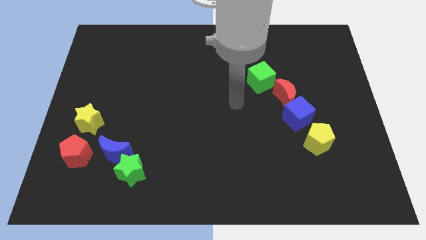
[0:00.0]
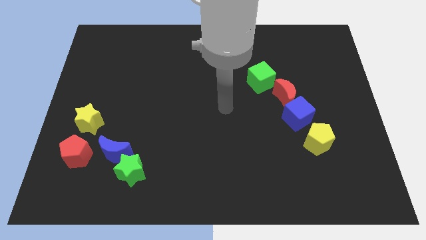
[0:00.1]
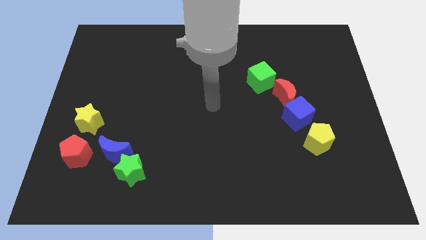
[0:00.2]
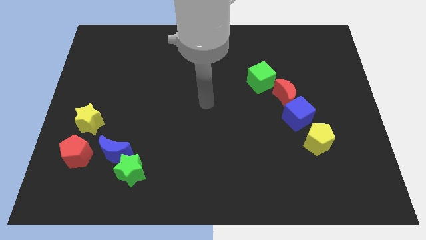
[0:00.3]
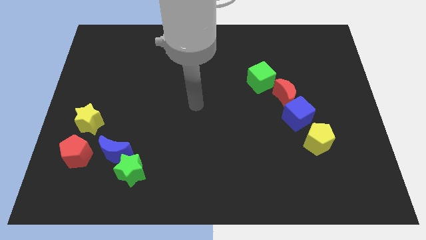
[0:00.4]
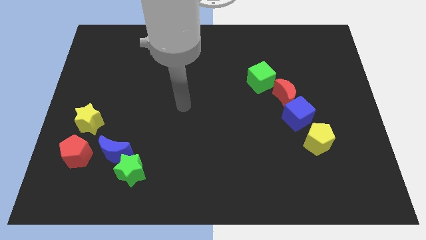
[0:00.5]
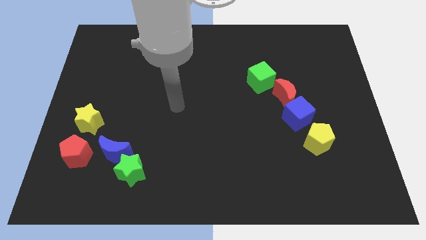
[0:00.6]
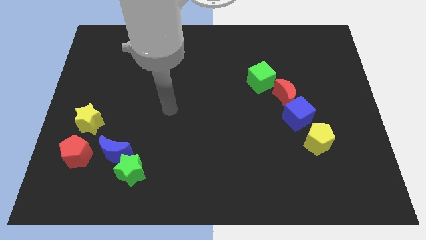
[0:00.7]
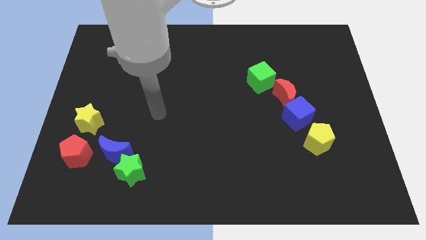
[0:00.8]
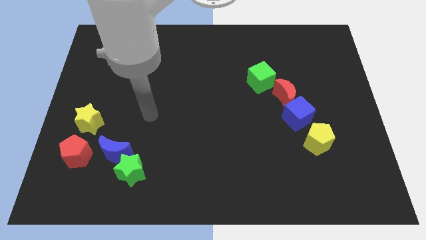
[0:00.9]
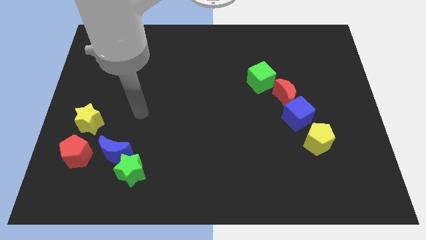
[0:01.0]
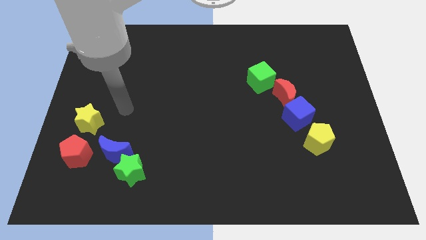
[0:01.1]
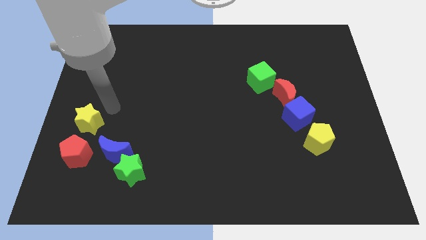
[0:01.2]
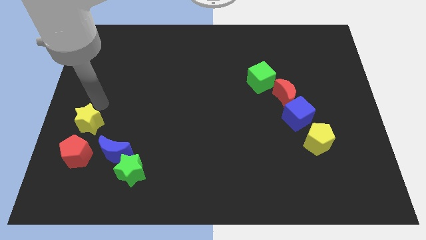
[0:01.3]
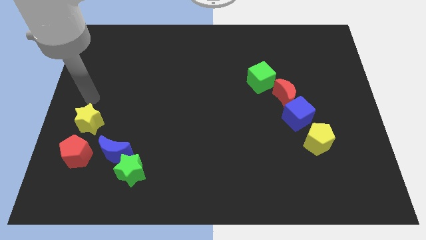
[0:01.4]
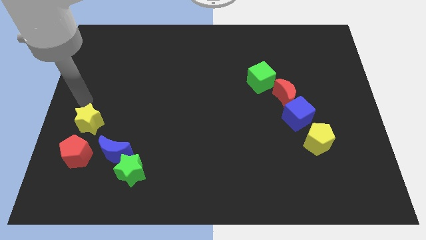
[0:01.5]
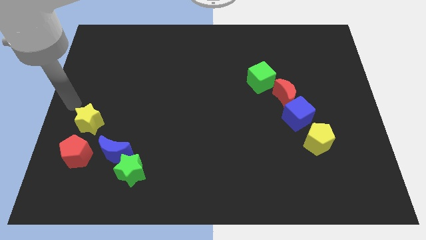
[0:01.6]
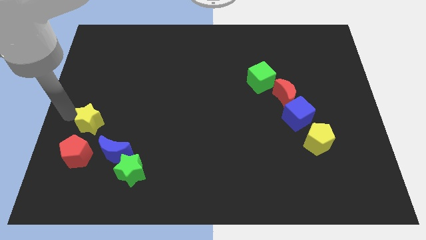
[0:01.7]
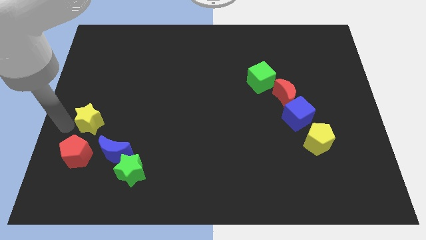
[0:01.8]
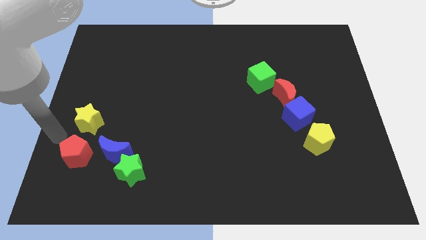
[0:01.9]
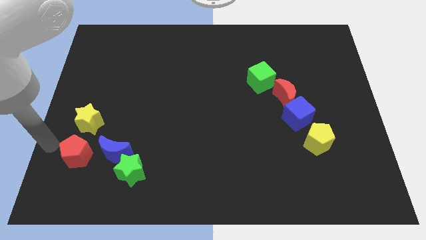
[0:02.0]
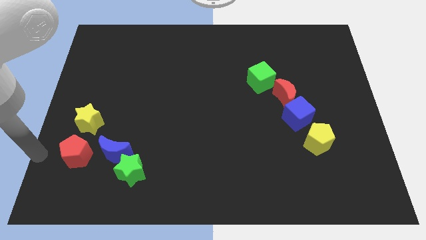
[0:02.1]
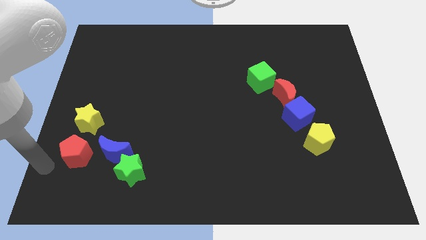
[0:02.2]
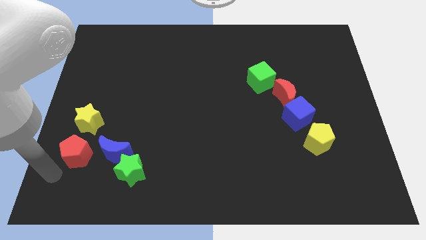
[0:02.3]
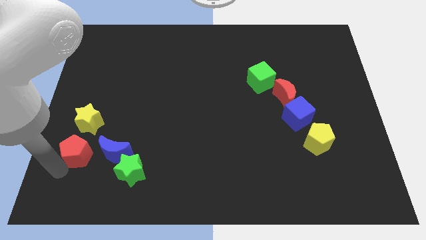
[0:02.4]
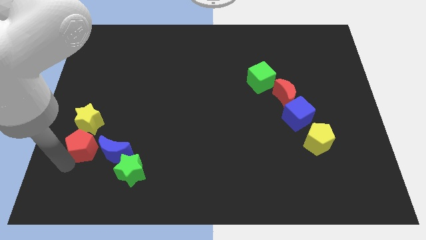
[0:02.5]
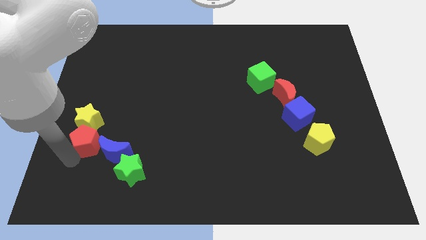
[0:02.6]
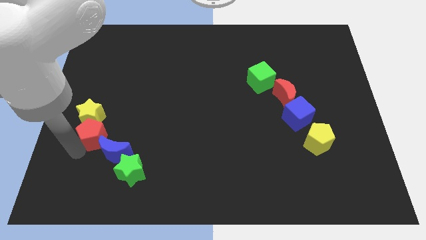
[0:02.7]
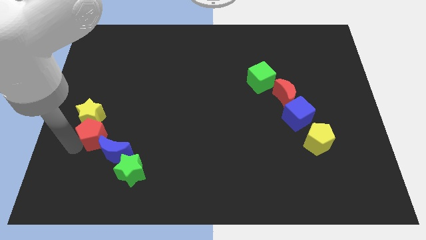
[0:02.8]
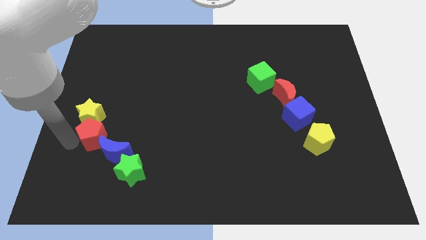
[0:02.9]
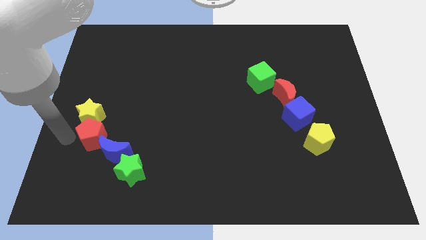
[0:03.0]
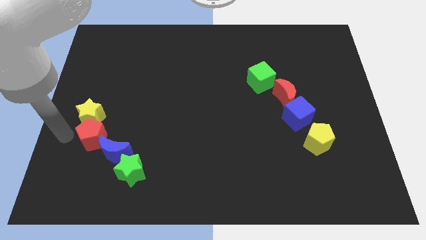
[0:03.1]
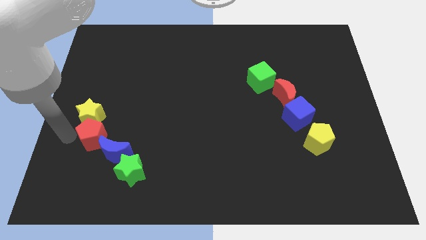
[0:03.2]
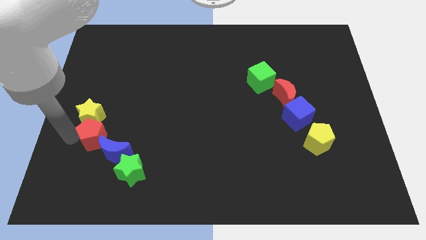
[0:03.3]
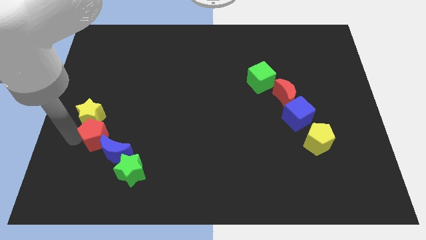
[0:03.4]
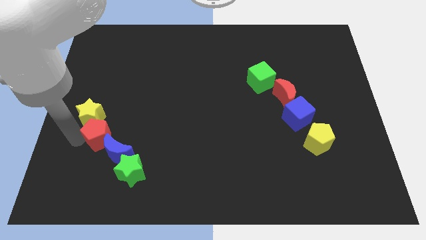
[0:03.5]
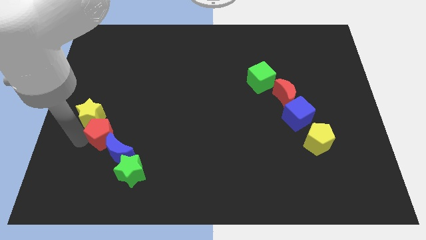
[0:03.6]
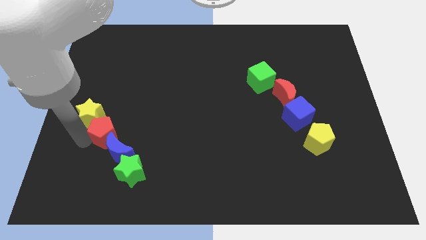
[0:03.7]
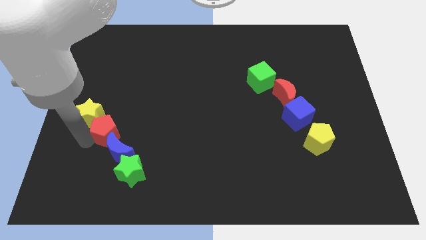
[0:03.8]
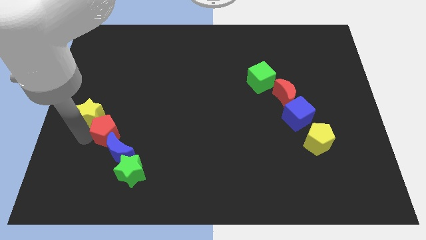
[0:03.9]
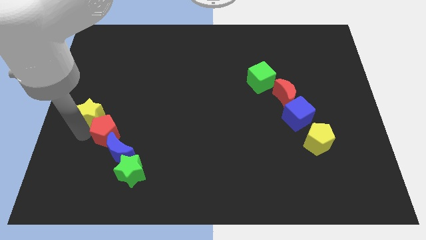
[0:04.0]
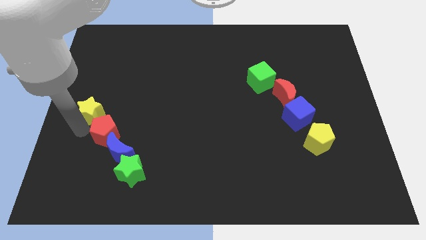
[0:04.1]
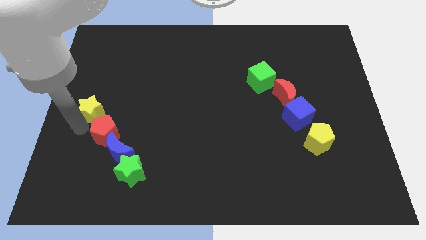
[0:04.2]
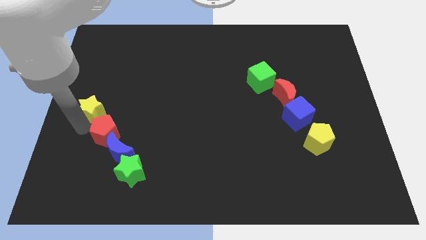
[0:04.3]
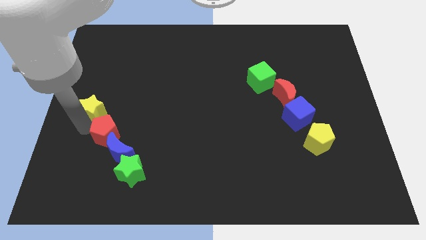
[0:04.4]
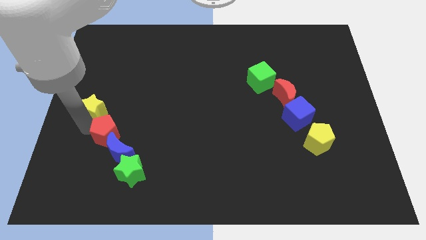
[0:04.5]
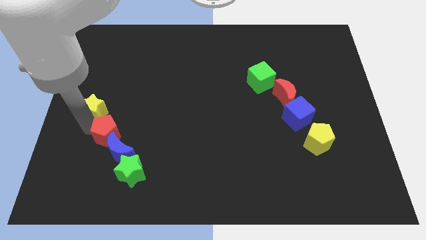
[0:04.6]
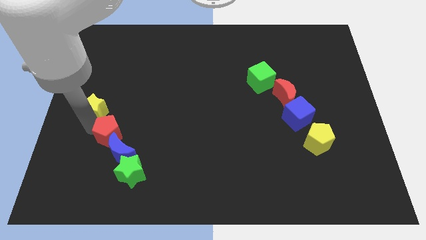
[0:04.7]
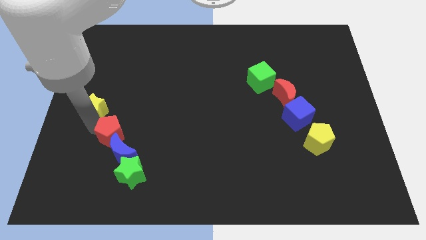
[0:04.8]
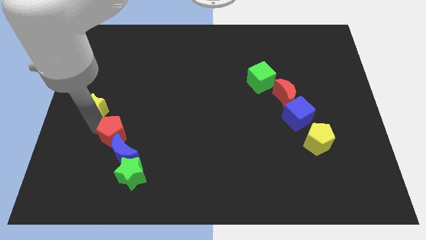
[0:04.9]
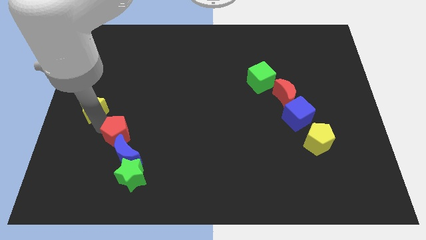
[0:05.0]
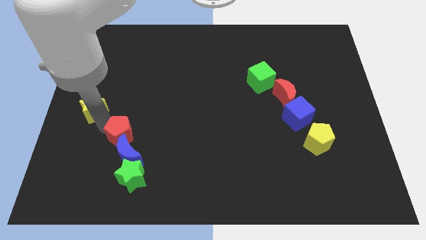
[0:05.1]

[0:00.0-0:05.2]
move the red pentagon a little bit to the right

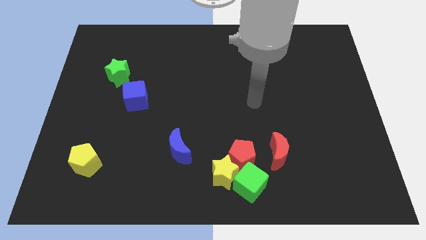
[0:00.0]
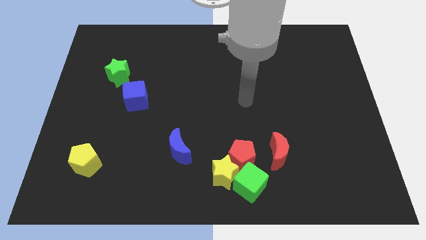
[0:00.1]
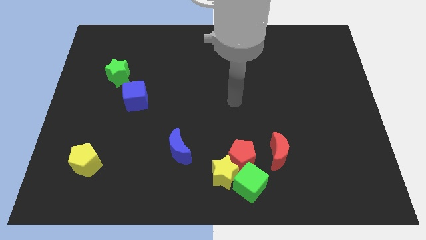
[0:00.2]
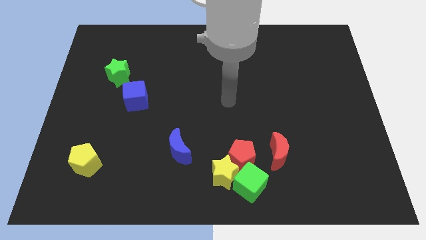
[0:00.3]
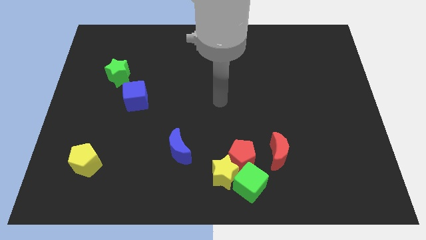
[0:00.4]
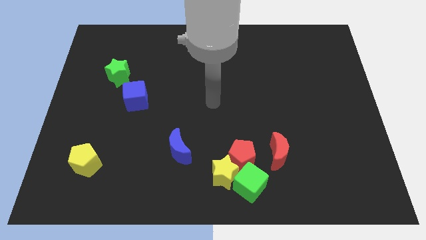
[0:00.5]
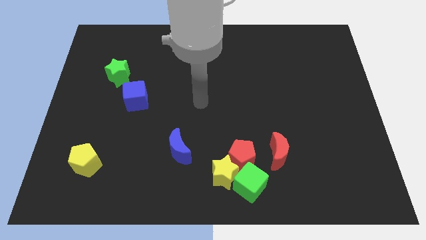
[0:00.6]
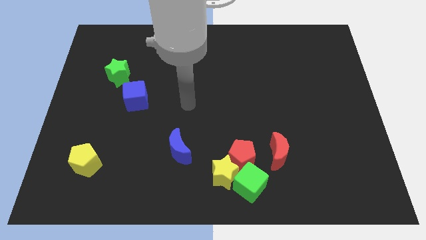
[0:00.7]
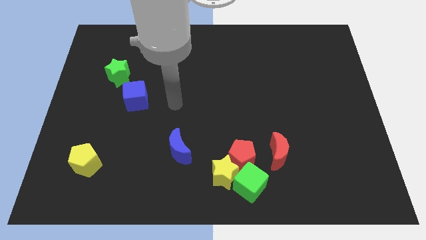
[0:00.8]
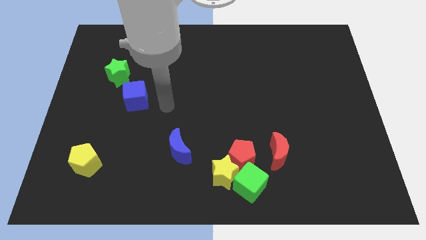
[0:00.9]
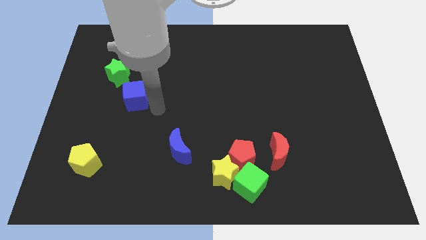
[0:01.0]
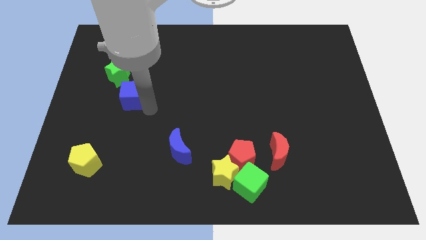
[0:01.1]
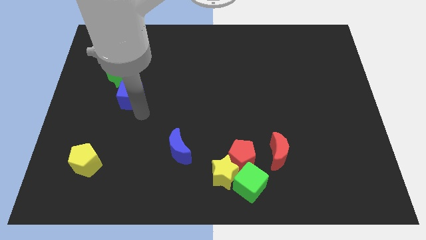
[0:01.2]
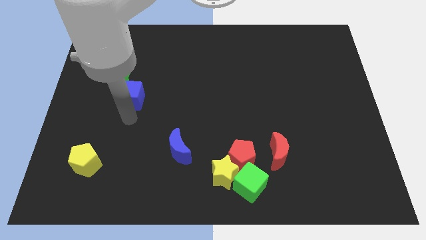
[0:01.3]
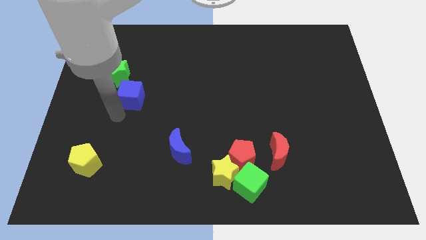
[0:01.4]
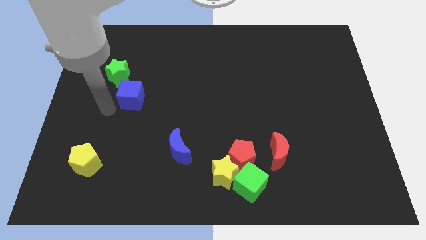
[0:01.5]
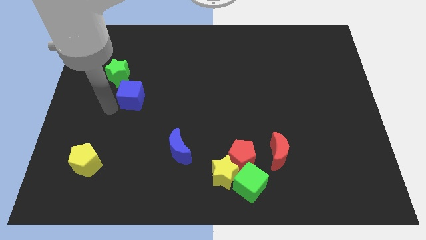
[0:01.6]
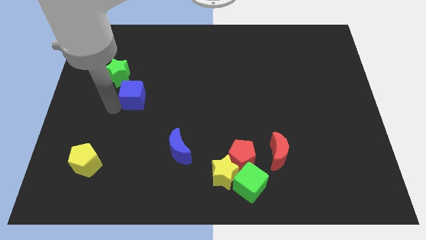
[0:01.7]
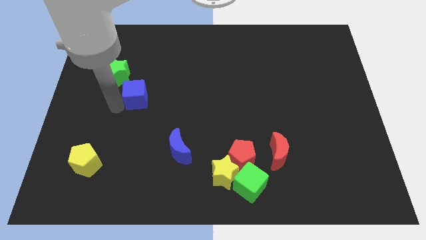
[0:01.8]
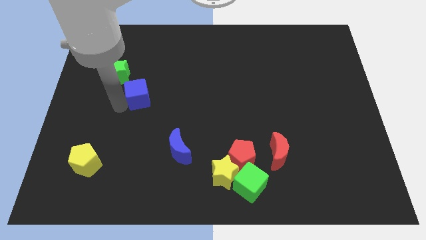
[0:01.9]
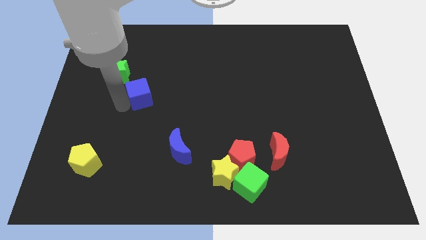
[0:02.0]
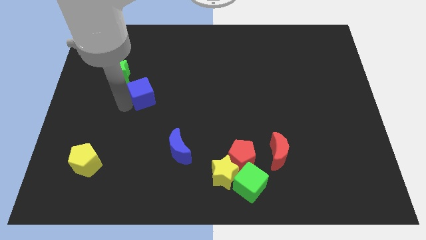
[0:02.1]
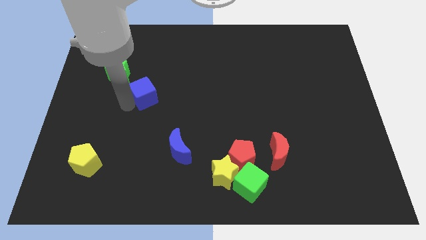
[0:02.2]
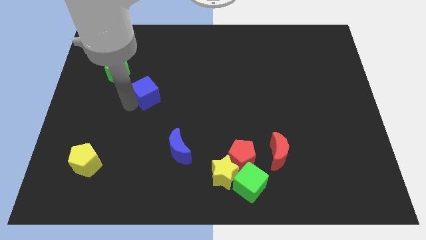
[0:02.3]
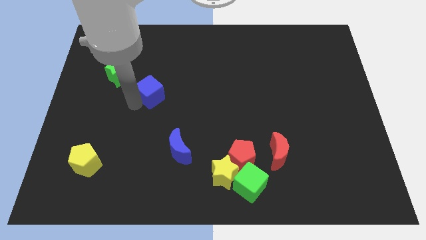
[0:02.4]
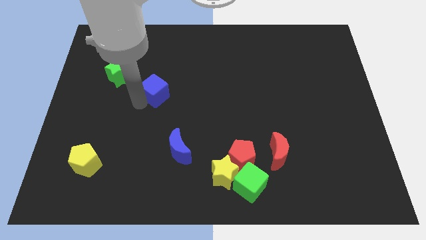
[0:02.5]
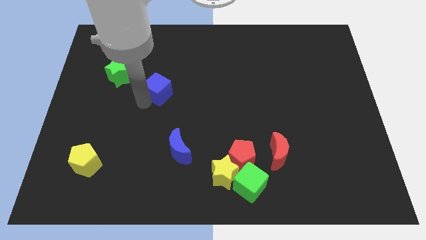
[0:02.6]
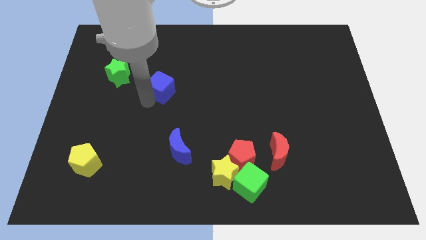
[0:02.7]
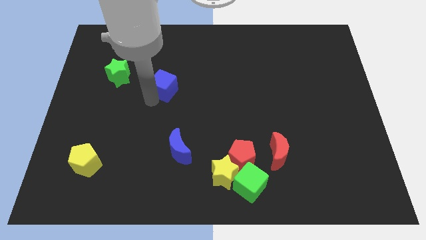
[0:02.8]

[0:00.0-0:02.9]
slide the blue cube upwards and to the right a little
